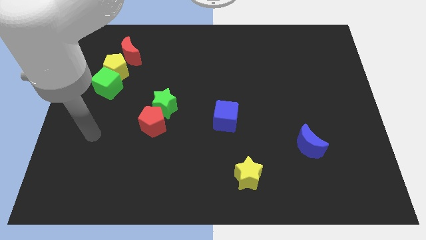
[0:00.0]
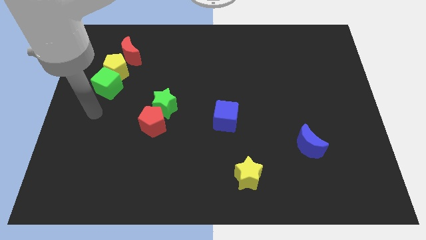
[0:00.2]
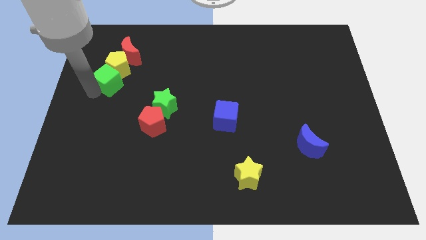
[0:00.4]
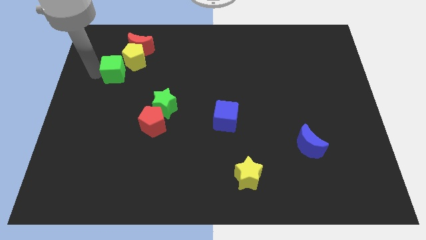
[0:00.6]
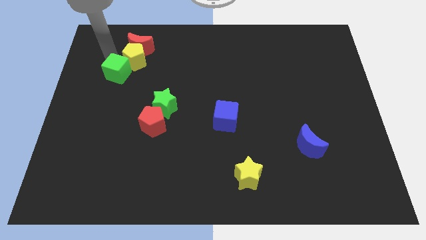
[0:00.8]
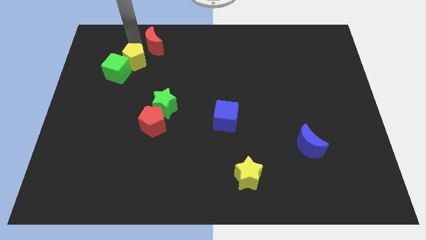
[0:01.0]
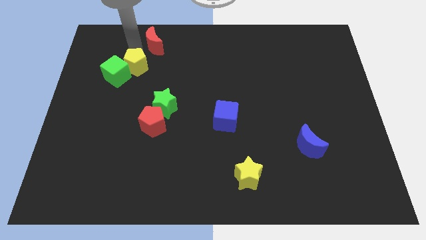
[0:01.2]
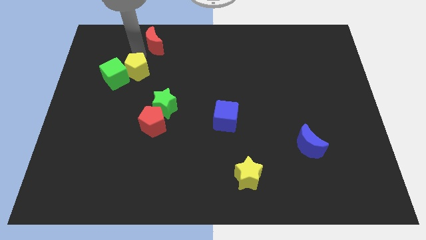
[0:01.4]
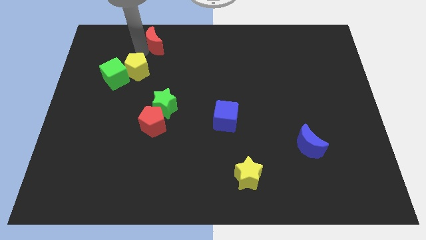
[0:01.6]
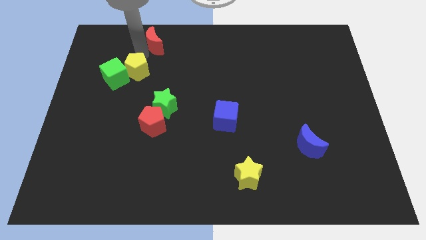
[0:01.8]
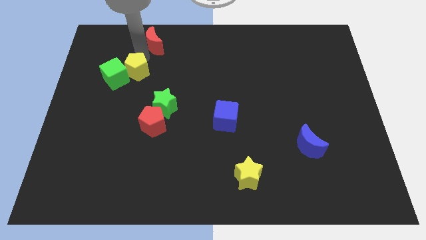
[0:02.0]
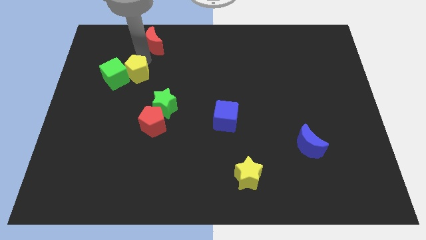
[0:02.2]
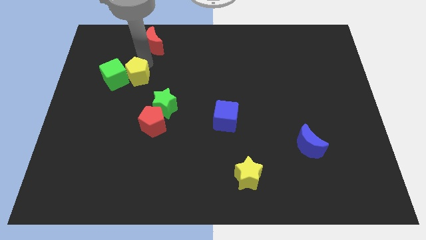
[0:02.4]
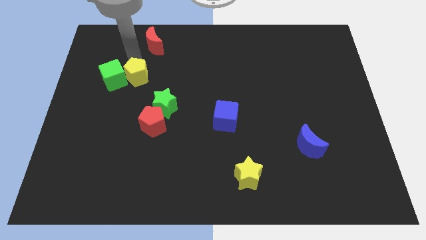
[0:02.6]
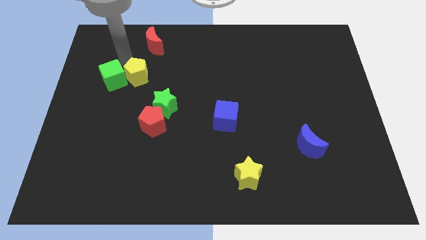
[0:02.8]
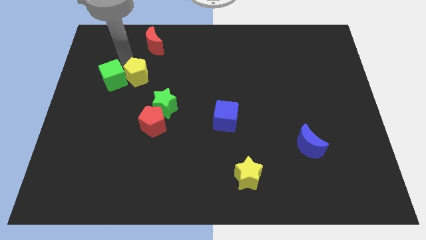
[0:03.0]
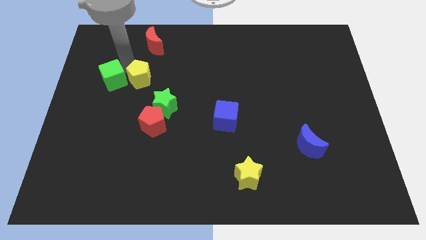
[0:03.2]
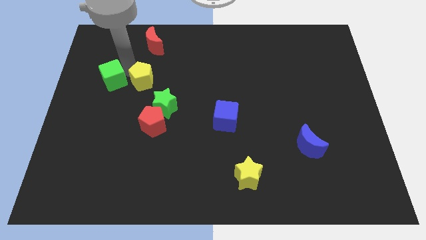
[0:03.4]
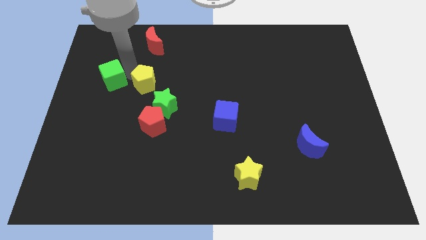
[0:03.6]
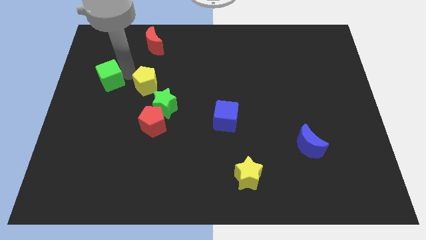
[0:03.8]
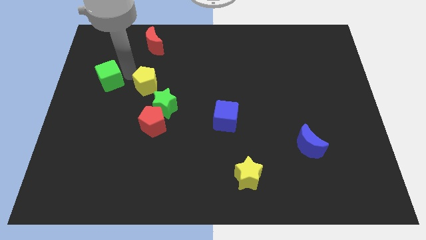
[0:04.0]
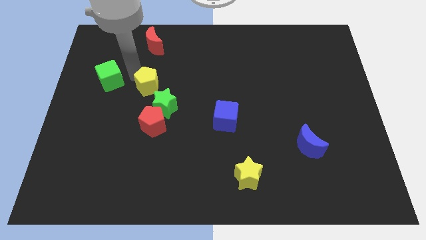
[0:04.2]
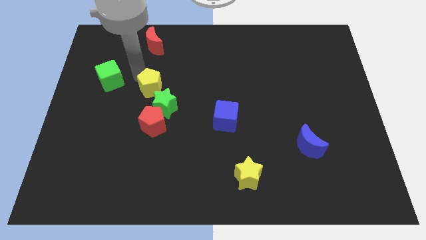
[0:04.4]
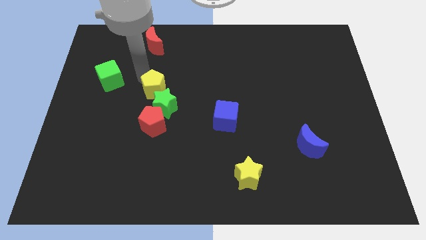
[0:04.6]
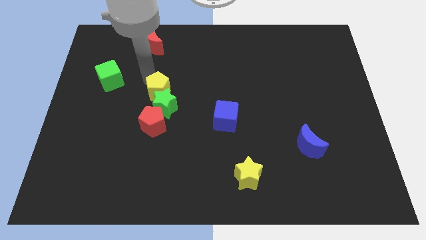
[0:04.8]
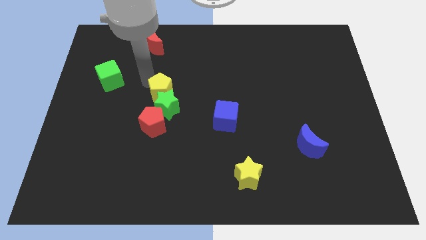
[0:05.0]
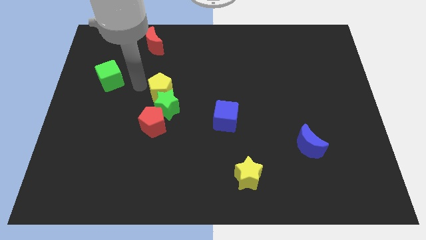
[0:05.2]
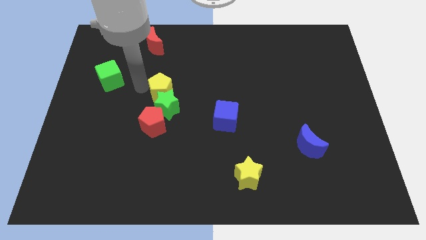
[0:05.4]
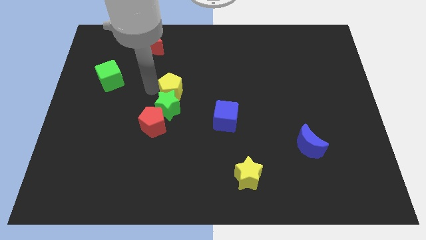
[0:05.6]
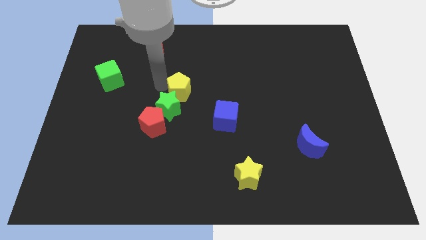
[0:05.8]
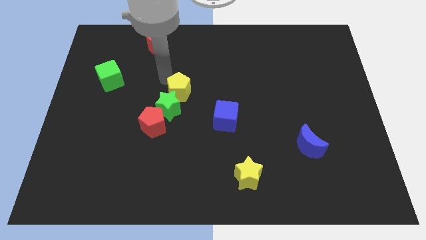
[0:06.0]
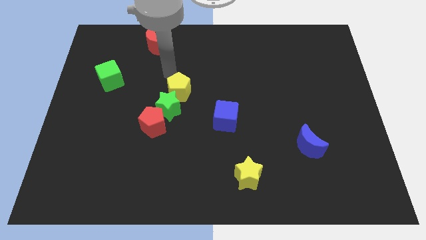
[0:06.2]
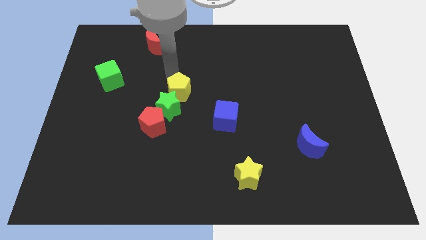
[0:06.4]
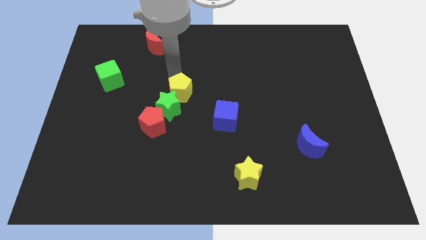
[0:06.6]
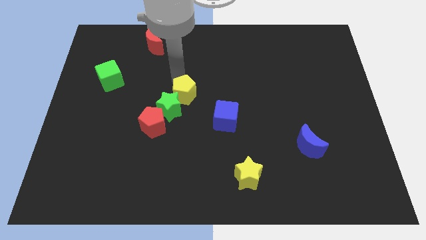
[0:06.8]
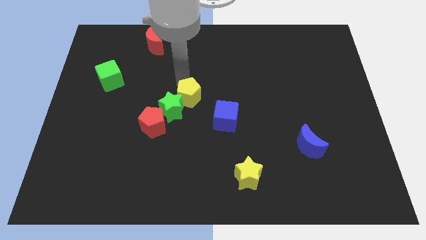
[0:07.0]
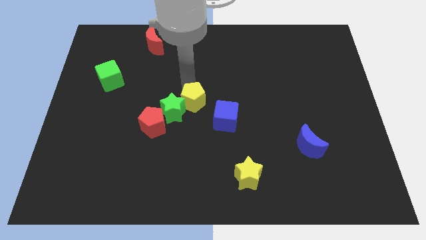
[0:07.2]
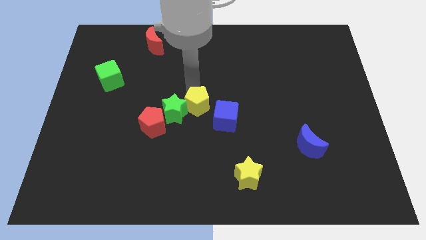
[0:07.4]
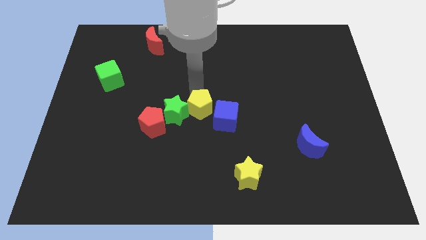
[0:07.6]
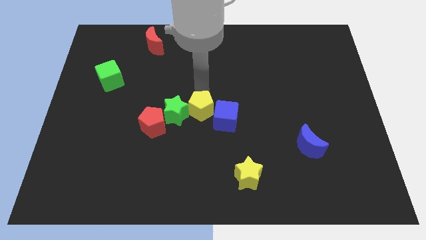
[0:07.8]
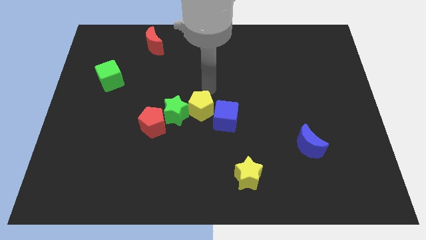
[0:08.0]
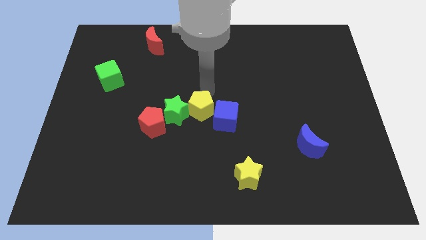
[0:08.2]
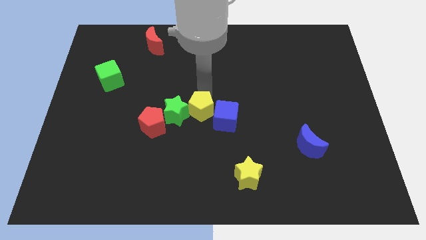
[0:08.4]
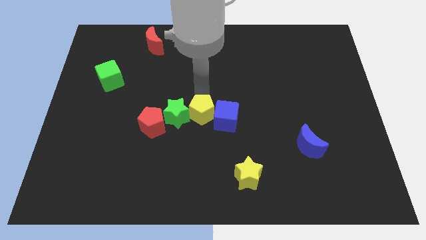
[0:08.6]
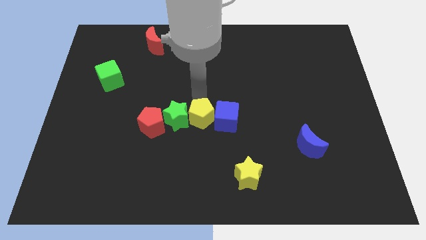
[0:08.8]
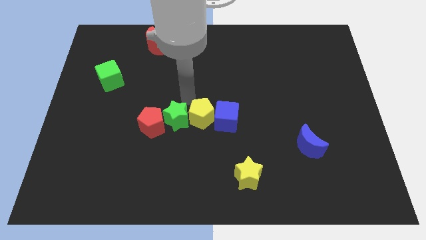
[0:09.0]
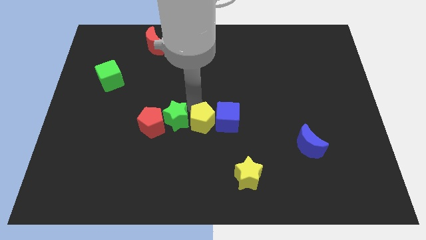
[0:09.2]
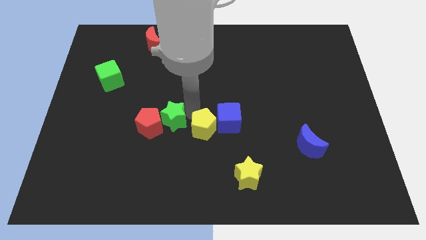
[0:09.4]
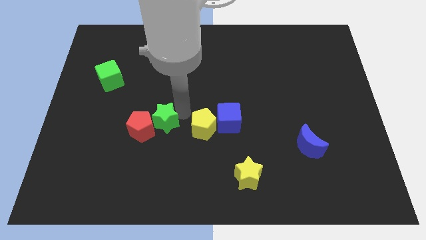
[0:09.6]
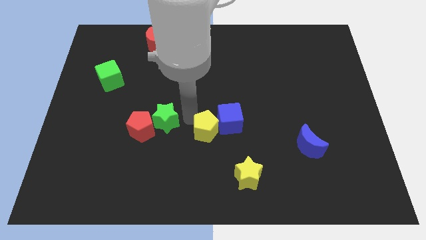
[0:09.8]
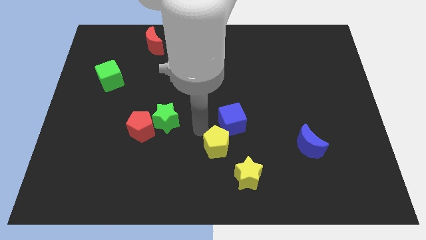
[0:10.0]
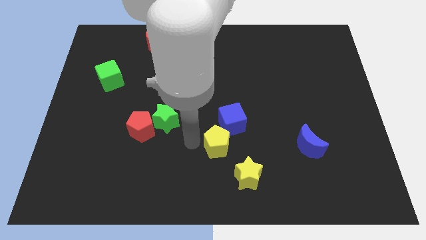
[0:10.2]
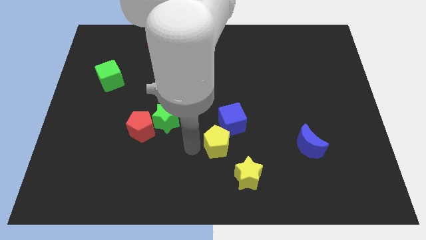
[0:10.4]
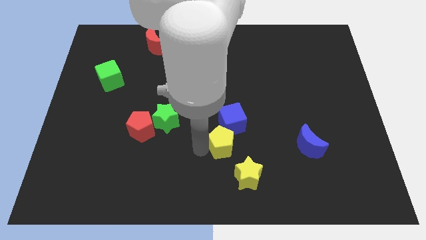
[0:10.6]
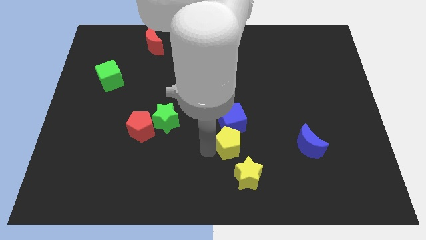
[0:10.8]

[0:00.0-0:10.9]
slide the yellow pentagon diagonally down and to the right of the blue cube

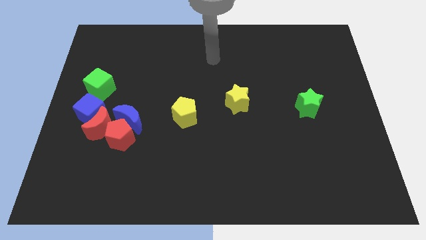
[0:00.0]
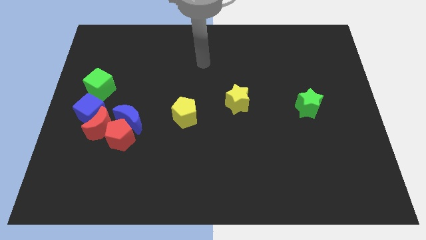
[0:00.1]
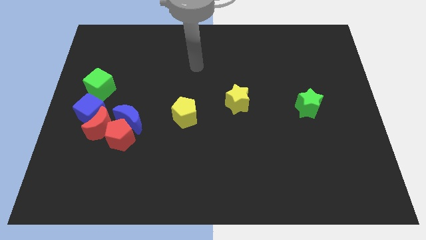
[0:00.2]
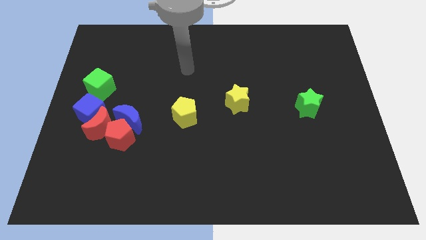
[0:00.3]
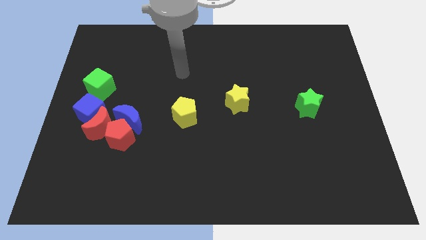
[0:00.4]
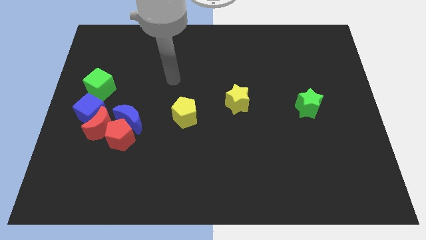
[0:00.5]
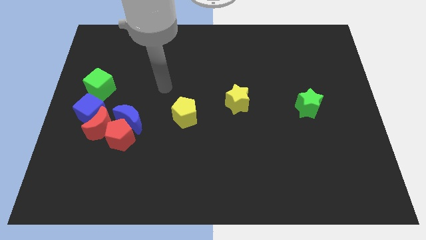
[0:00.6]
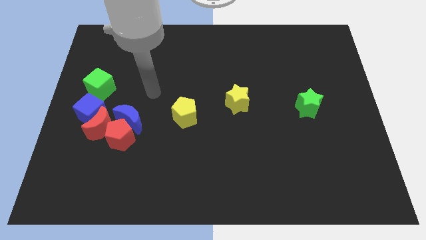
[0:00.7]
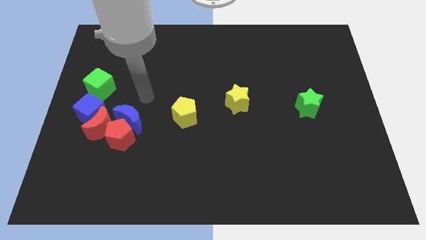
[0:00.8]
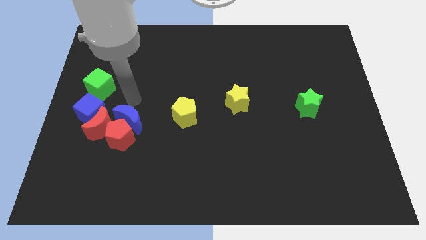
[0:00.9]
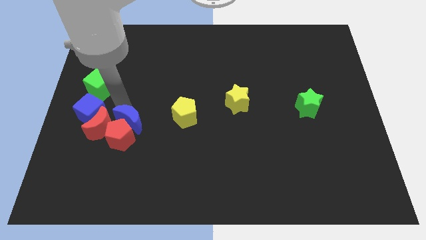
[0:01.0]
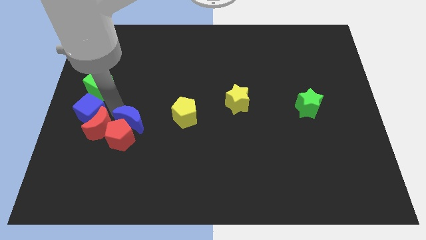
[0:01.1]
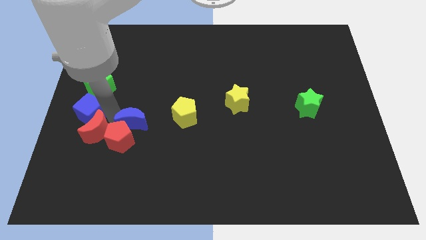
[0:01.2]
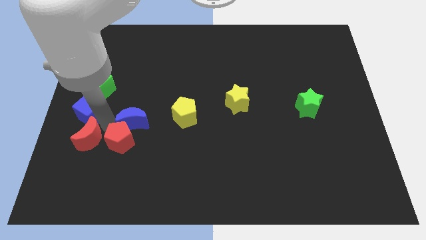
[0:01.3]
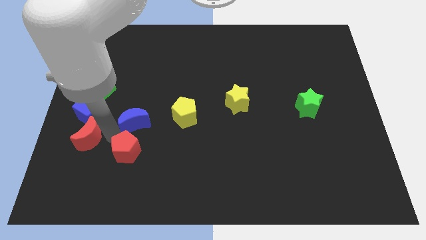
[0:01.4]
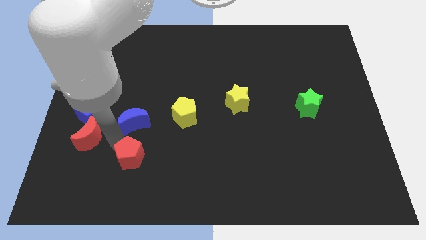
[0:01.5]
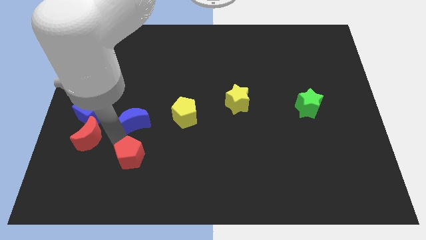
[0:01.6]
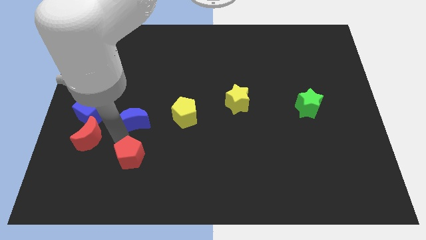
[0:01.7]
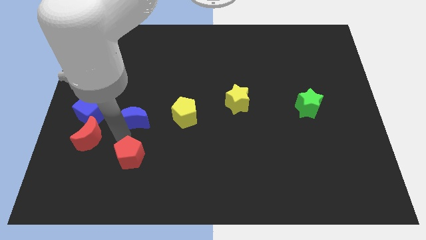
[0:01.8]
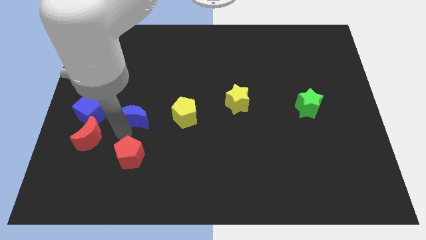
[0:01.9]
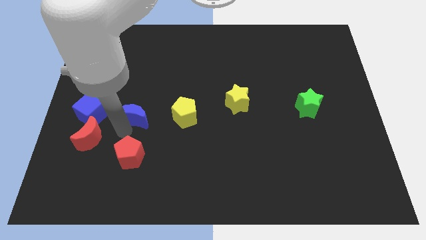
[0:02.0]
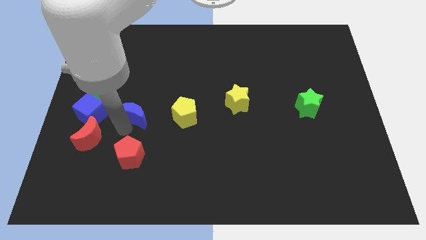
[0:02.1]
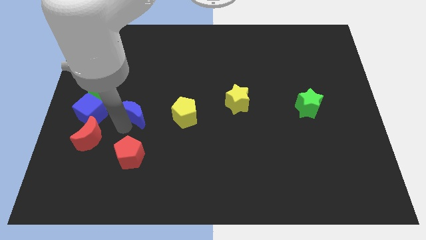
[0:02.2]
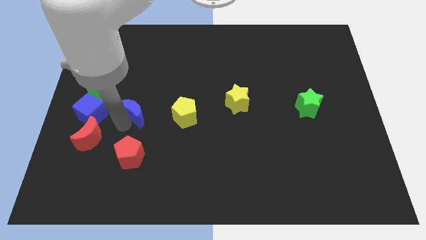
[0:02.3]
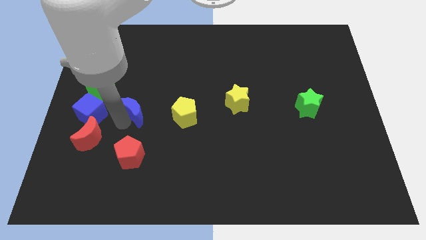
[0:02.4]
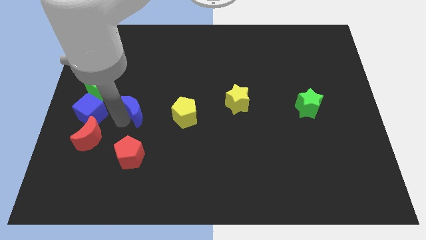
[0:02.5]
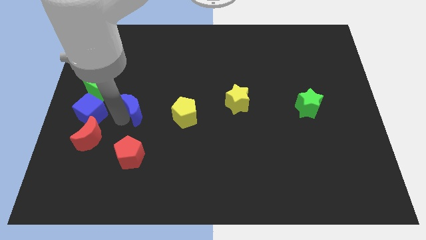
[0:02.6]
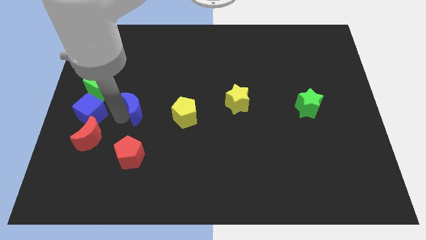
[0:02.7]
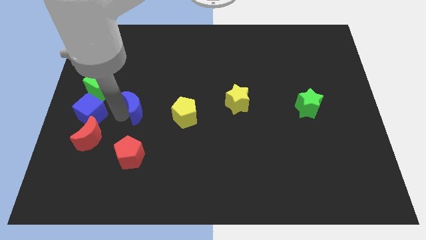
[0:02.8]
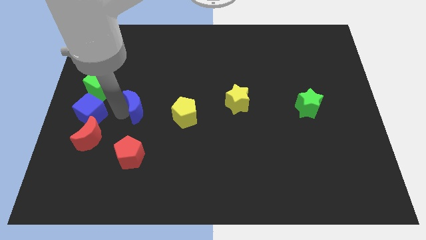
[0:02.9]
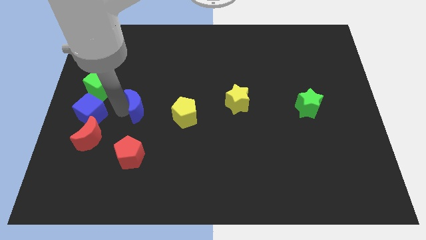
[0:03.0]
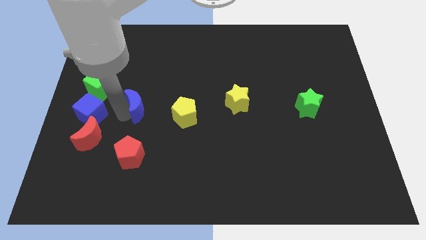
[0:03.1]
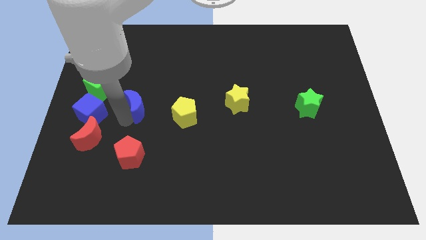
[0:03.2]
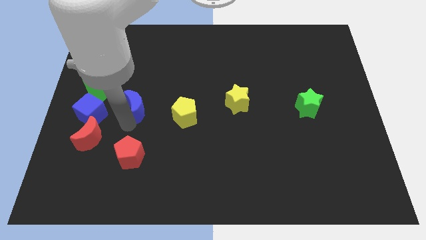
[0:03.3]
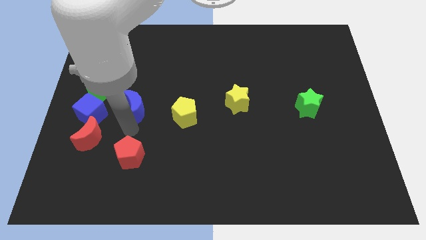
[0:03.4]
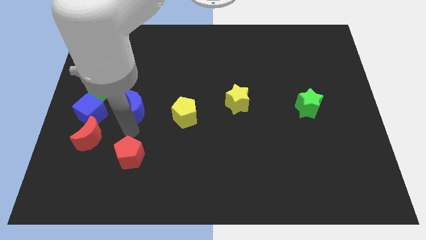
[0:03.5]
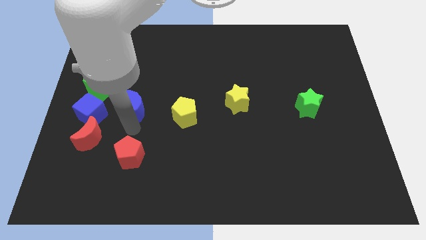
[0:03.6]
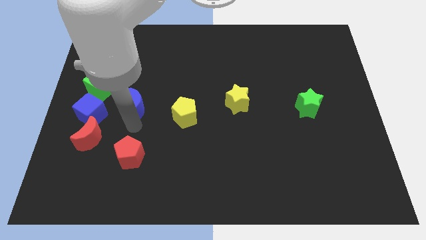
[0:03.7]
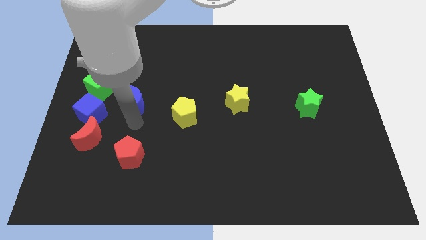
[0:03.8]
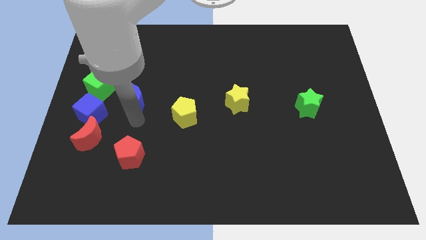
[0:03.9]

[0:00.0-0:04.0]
move the blue moon to the right side of the green cube
